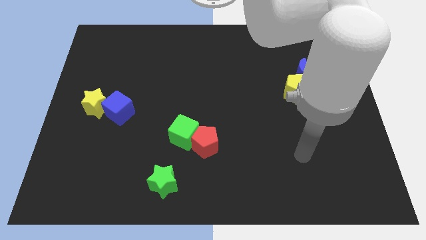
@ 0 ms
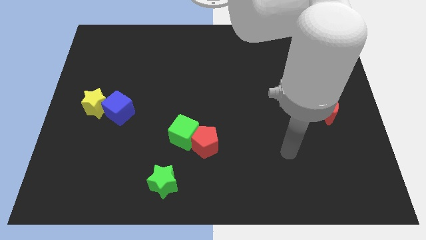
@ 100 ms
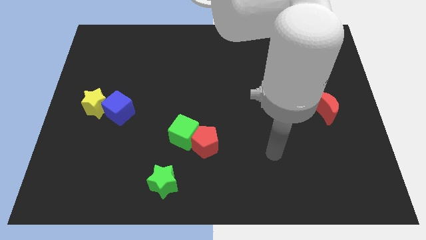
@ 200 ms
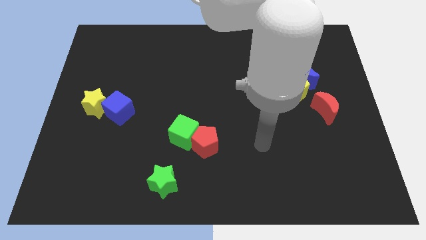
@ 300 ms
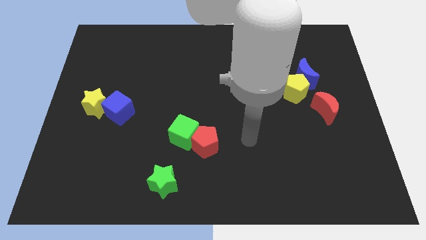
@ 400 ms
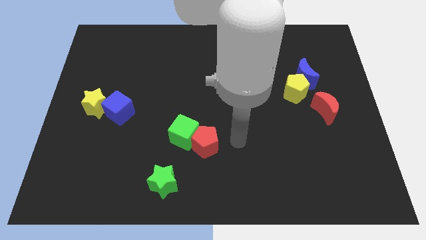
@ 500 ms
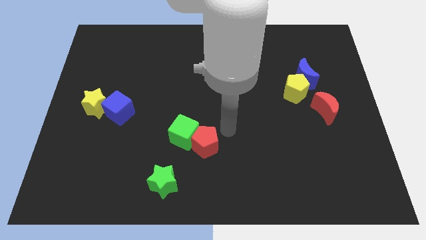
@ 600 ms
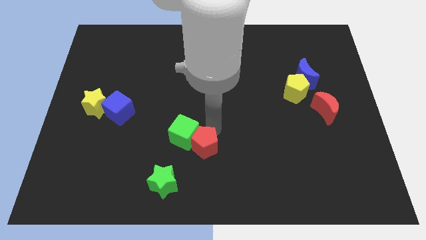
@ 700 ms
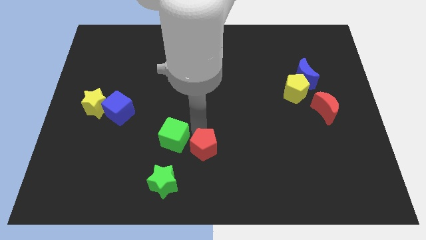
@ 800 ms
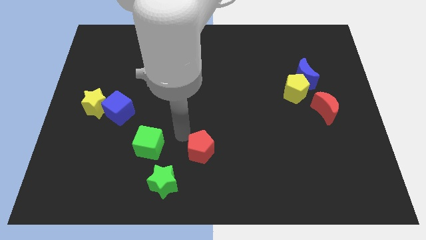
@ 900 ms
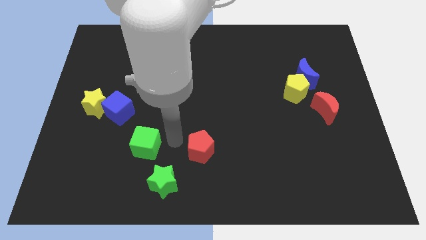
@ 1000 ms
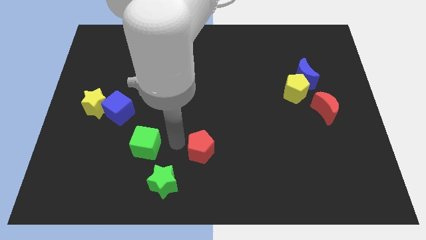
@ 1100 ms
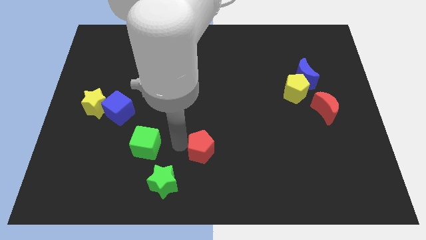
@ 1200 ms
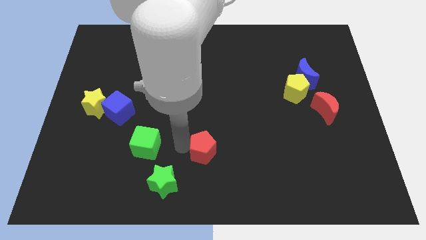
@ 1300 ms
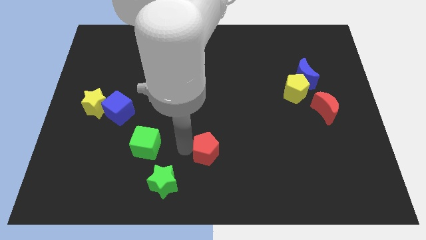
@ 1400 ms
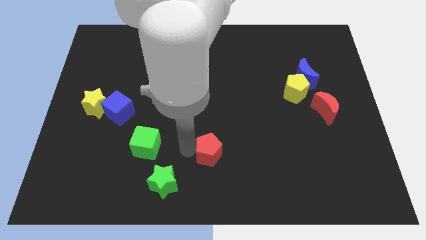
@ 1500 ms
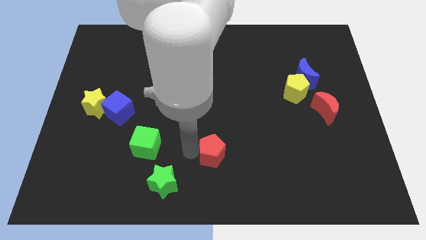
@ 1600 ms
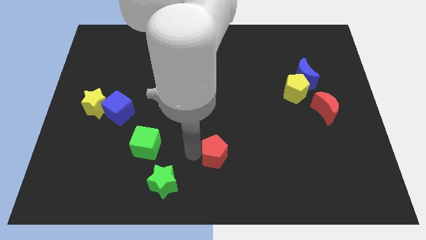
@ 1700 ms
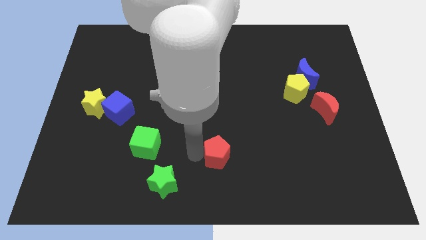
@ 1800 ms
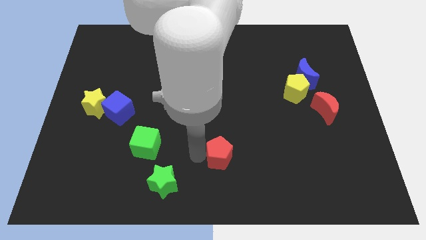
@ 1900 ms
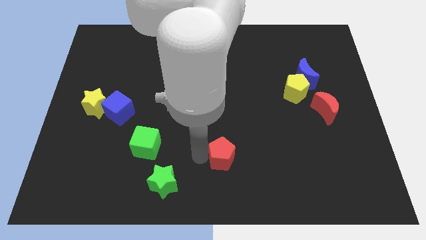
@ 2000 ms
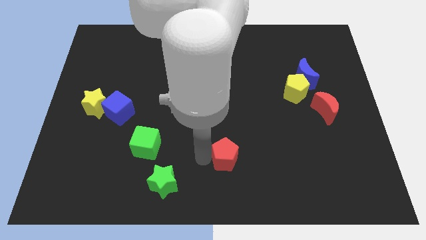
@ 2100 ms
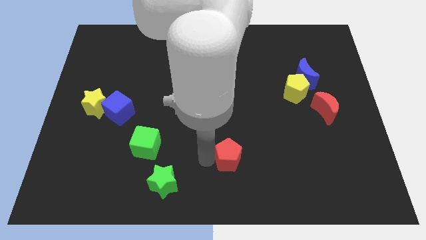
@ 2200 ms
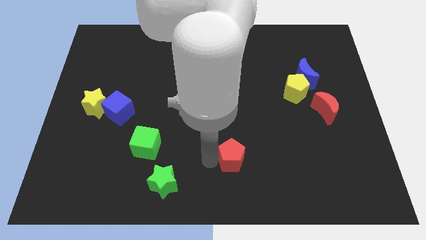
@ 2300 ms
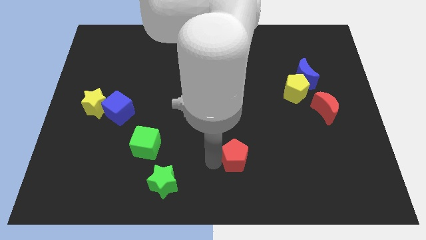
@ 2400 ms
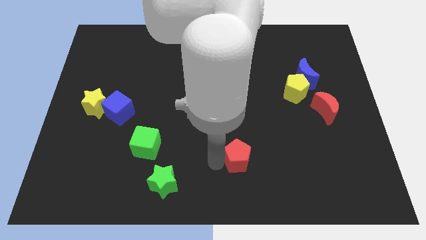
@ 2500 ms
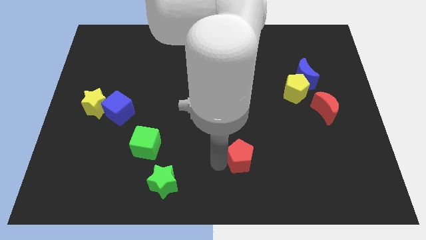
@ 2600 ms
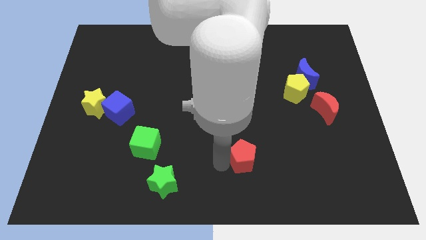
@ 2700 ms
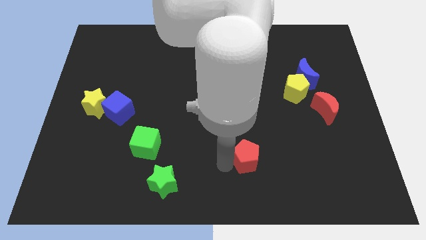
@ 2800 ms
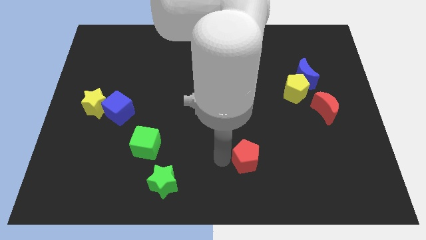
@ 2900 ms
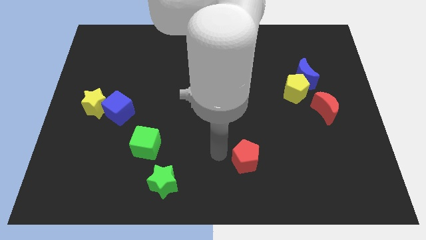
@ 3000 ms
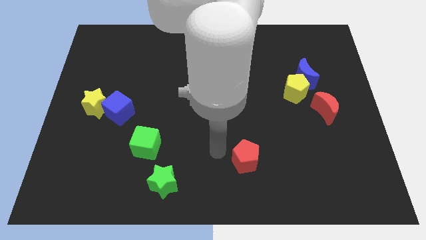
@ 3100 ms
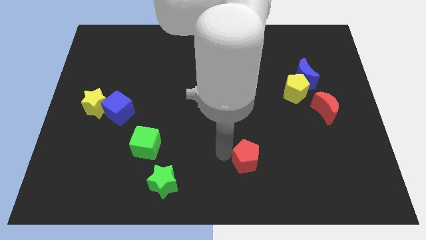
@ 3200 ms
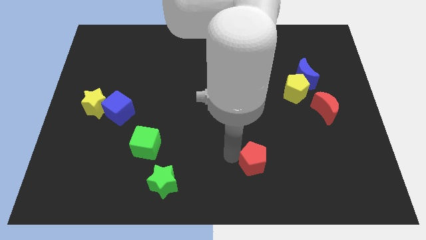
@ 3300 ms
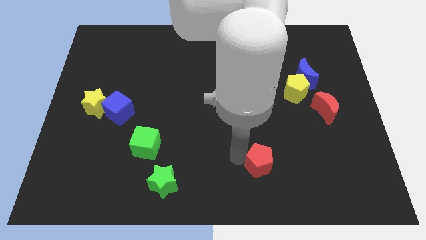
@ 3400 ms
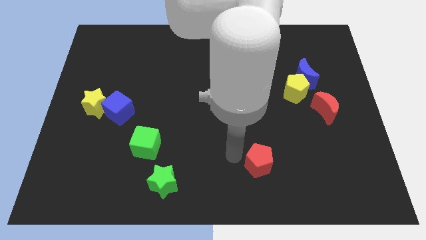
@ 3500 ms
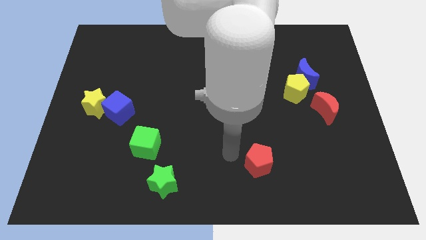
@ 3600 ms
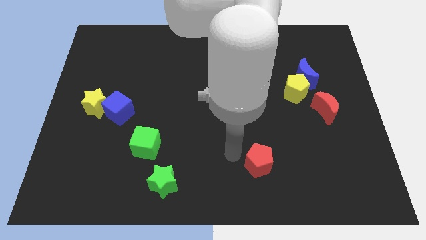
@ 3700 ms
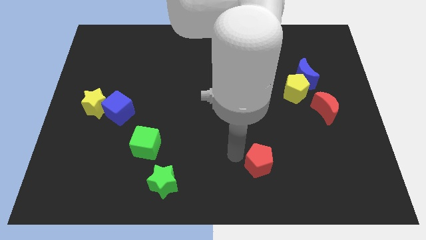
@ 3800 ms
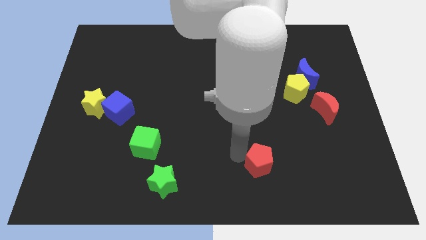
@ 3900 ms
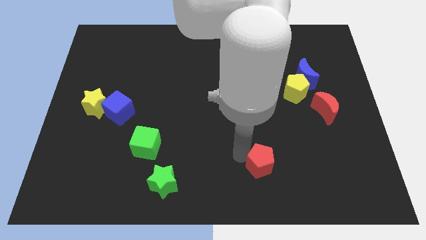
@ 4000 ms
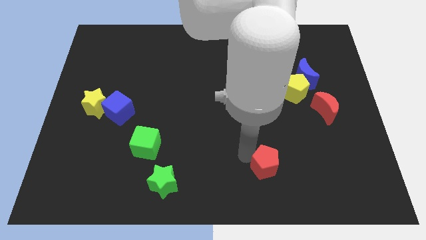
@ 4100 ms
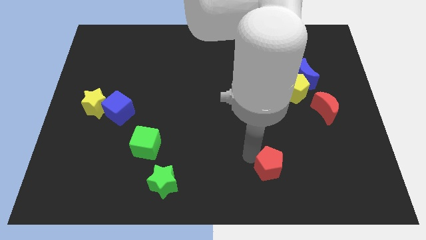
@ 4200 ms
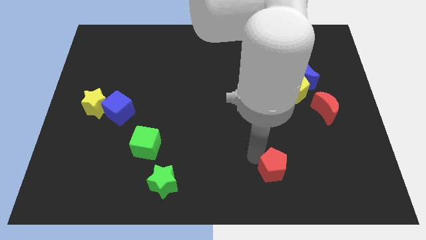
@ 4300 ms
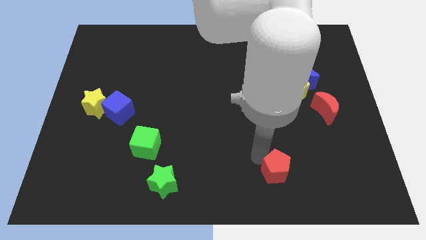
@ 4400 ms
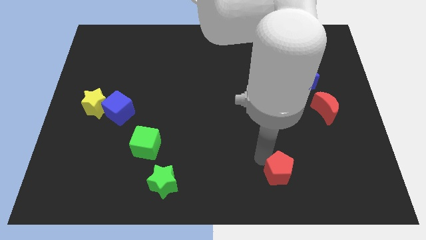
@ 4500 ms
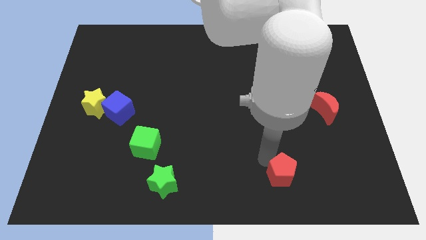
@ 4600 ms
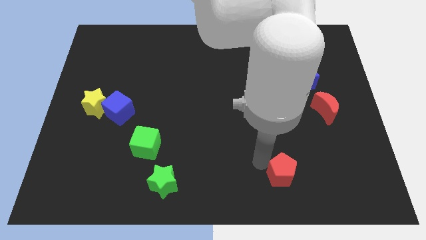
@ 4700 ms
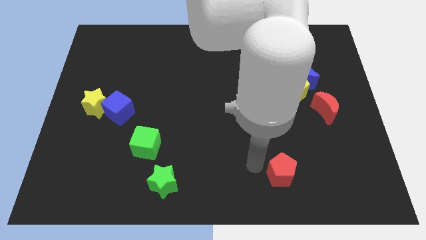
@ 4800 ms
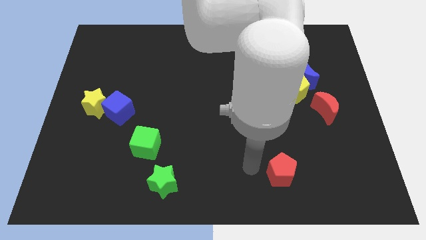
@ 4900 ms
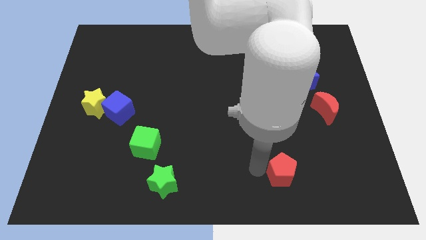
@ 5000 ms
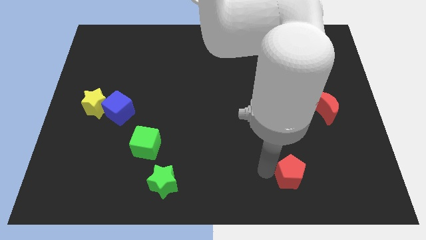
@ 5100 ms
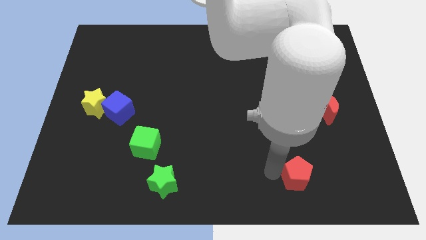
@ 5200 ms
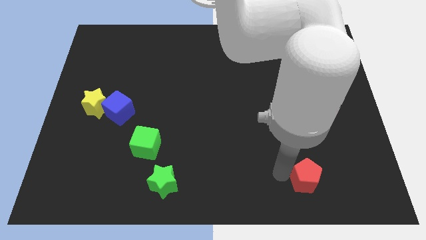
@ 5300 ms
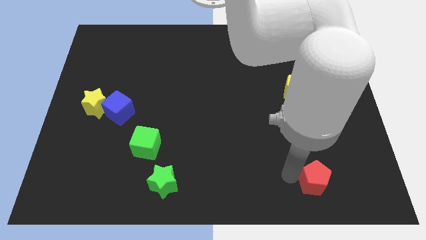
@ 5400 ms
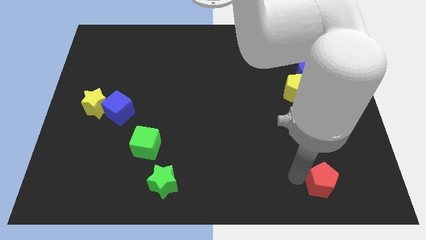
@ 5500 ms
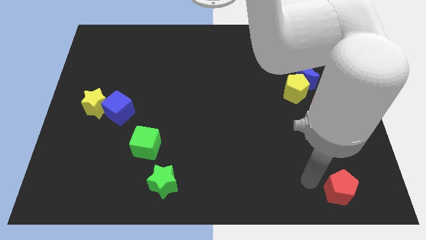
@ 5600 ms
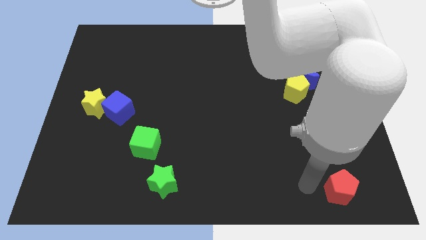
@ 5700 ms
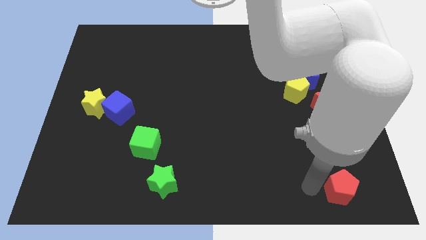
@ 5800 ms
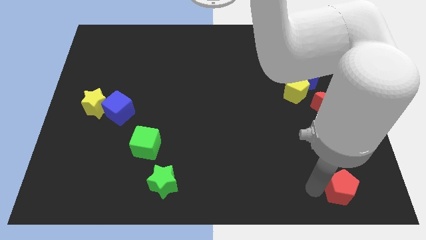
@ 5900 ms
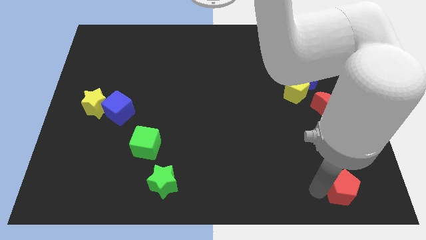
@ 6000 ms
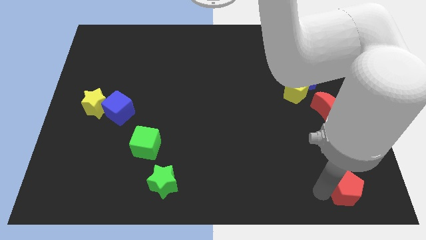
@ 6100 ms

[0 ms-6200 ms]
put the red pentagon to the bottom right corner

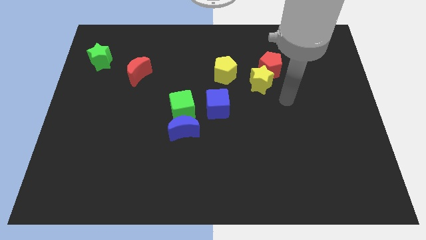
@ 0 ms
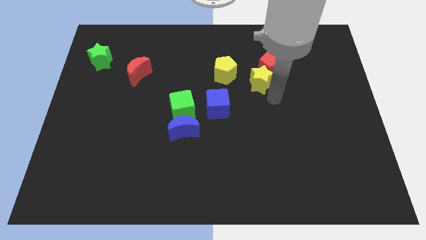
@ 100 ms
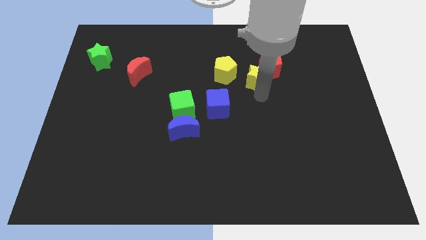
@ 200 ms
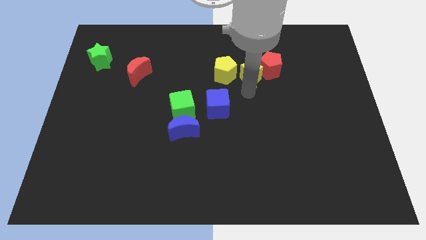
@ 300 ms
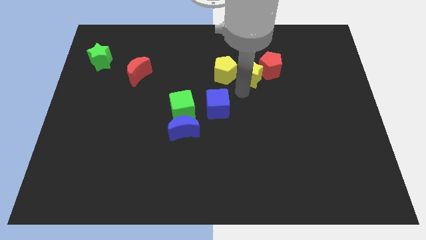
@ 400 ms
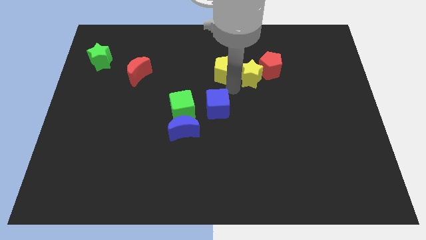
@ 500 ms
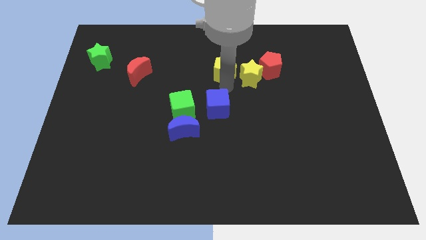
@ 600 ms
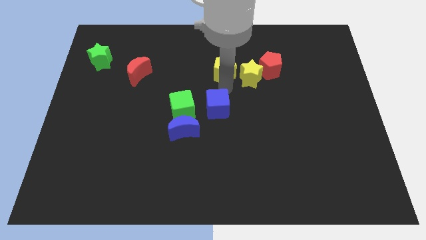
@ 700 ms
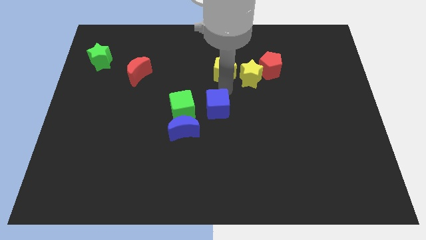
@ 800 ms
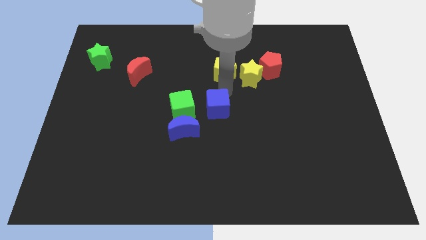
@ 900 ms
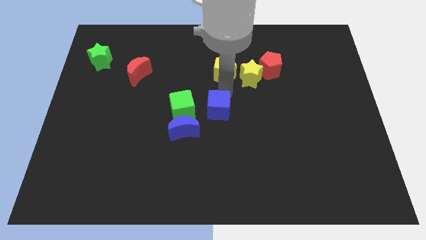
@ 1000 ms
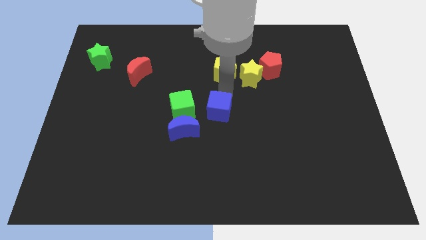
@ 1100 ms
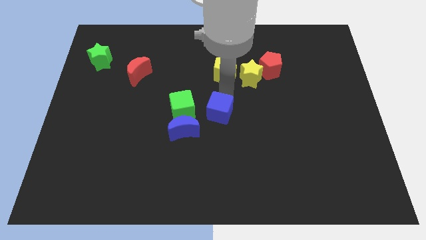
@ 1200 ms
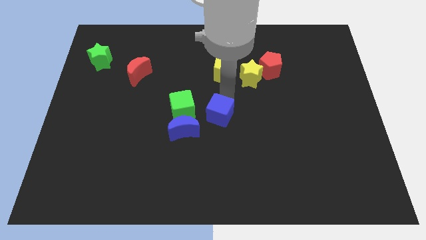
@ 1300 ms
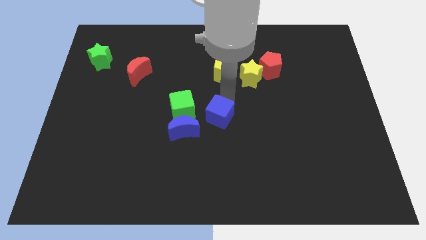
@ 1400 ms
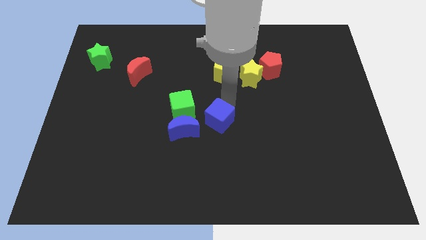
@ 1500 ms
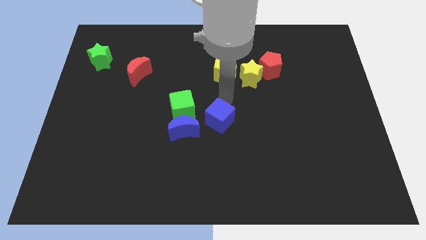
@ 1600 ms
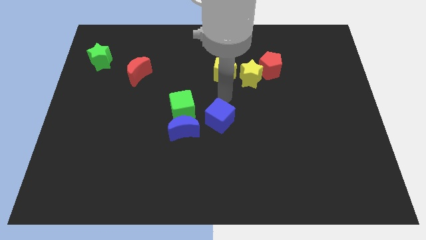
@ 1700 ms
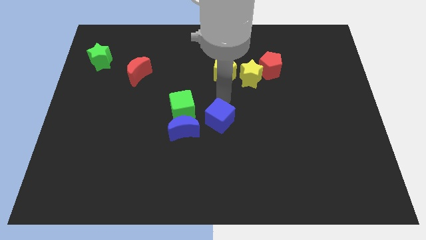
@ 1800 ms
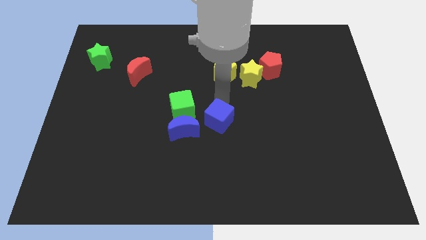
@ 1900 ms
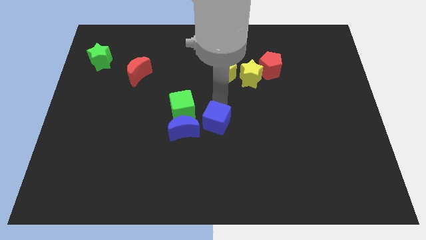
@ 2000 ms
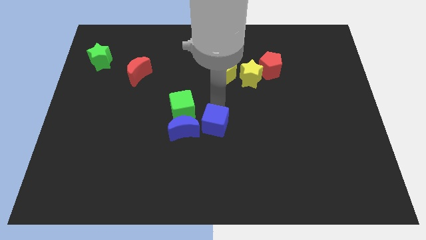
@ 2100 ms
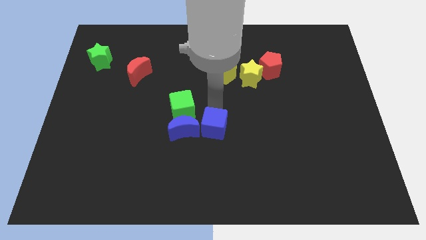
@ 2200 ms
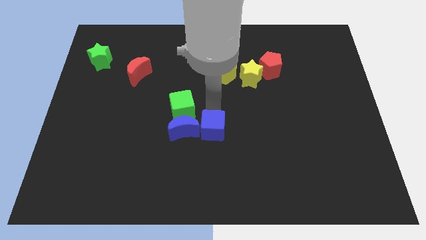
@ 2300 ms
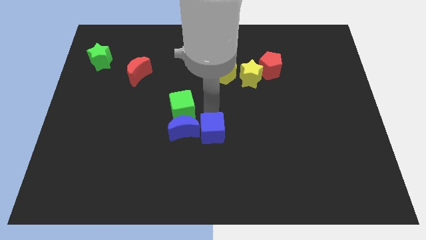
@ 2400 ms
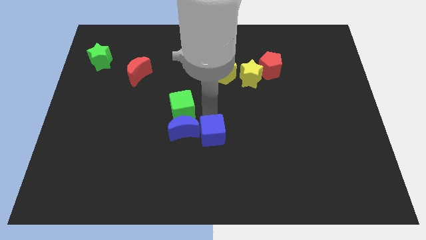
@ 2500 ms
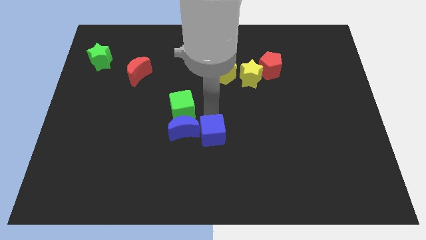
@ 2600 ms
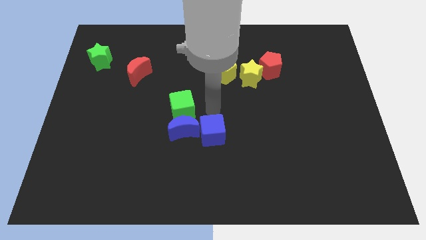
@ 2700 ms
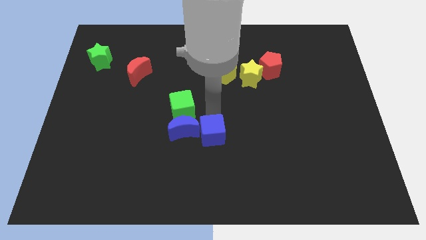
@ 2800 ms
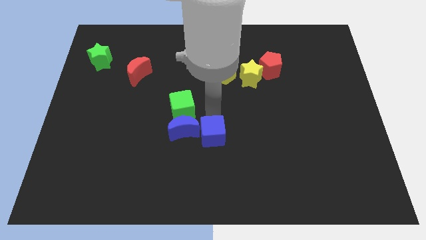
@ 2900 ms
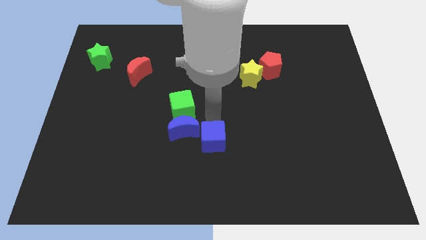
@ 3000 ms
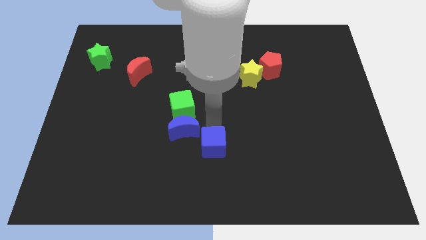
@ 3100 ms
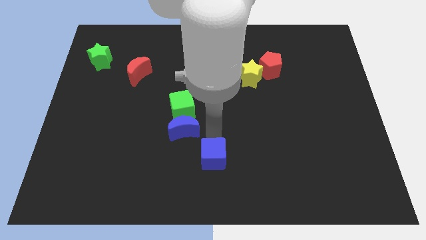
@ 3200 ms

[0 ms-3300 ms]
push the blue cube to the bottom
